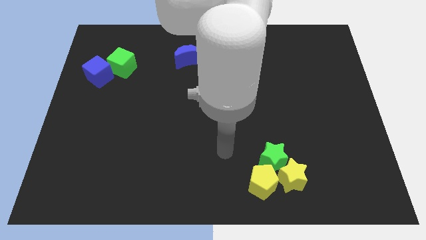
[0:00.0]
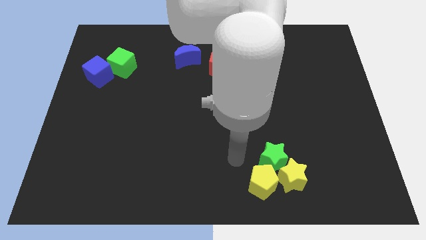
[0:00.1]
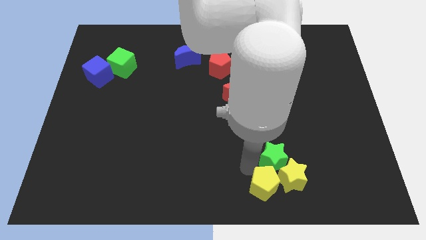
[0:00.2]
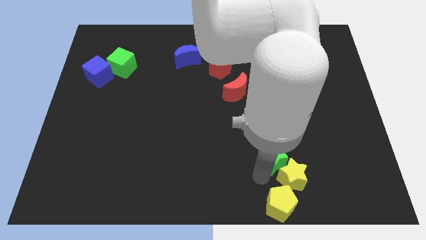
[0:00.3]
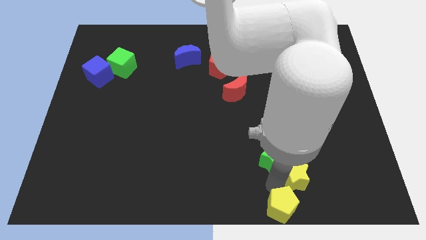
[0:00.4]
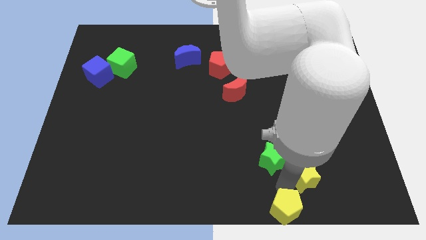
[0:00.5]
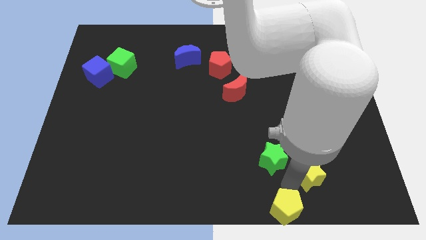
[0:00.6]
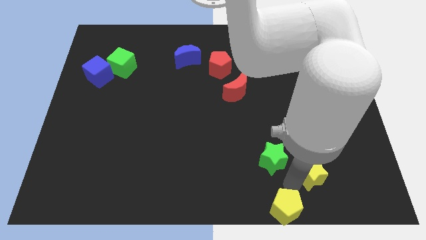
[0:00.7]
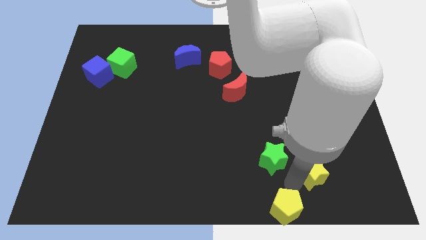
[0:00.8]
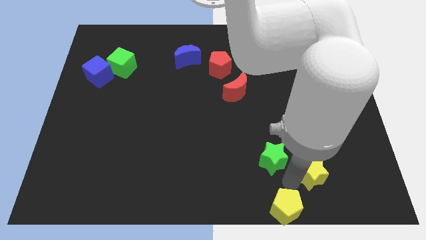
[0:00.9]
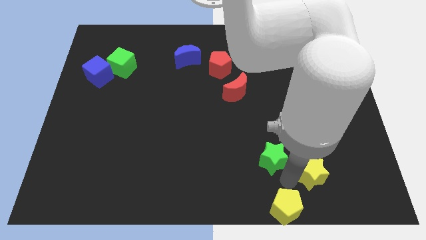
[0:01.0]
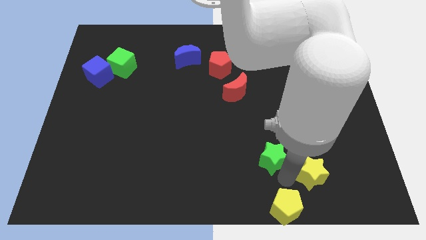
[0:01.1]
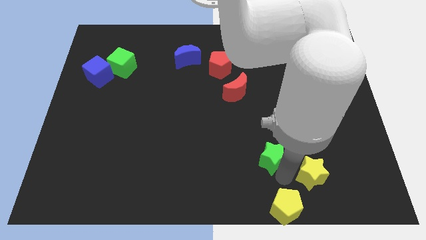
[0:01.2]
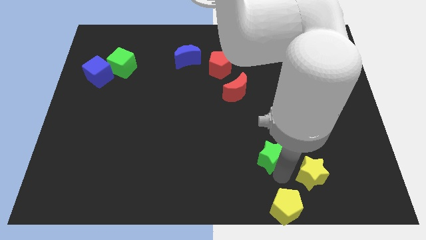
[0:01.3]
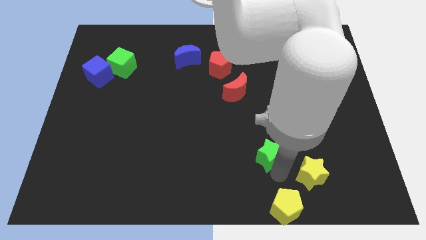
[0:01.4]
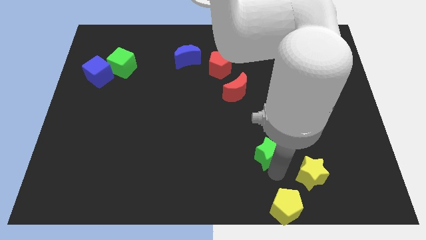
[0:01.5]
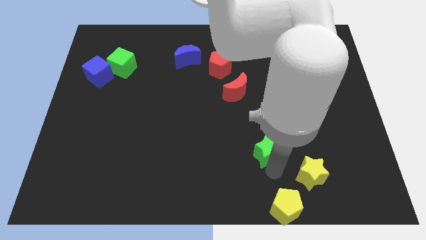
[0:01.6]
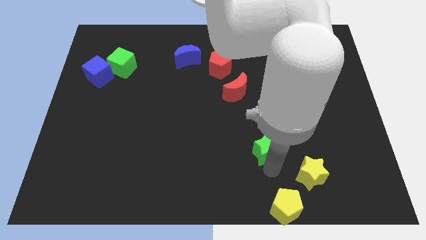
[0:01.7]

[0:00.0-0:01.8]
separate the green star from the yellow star and yellow pentagon

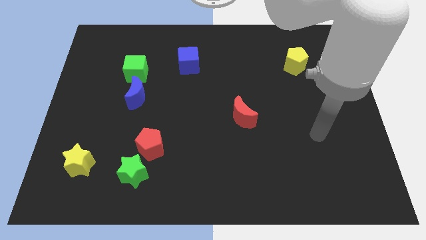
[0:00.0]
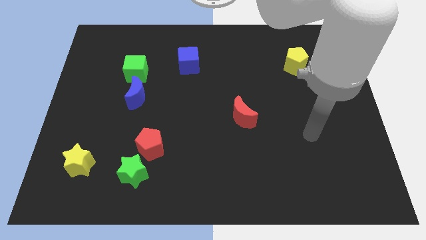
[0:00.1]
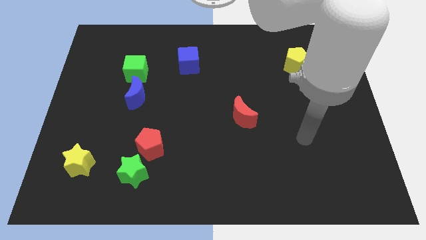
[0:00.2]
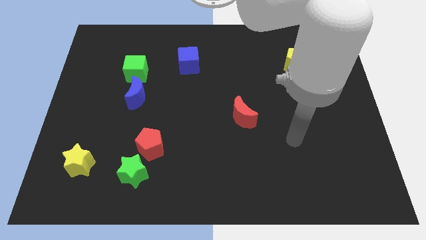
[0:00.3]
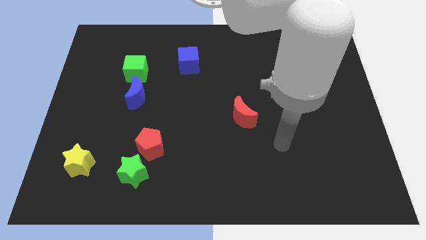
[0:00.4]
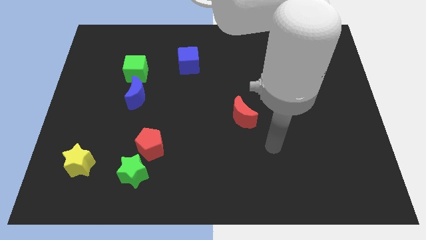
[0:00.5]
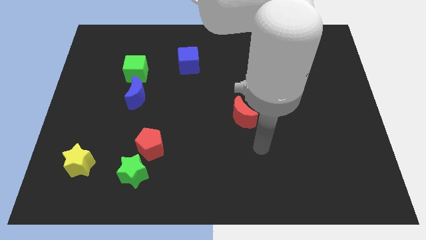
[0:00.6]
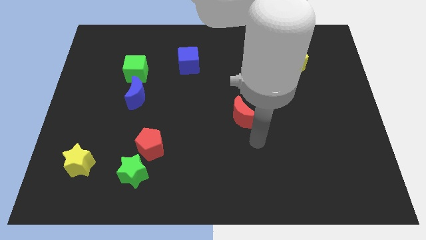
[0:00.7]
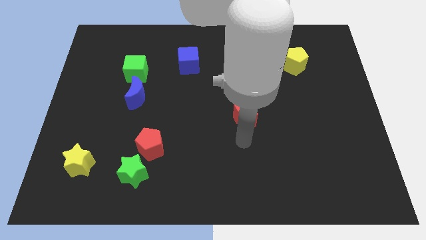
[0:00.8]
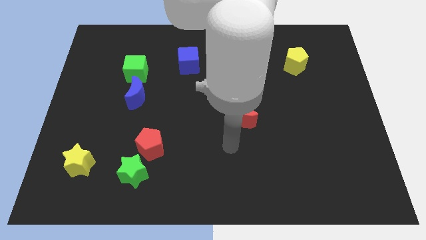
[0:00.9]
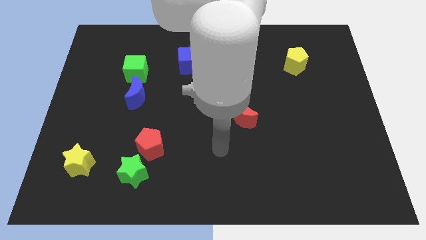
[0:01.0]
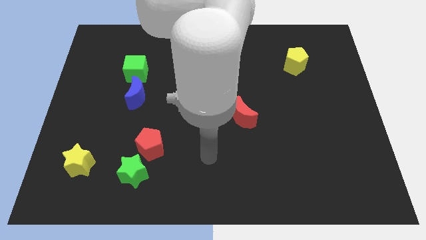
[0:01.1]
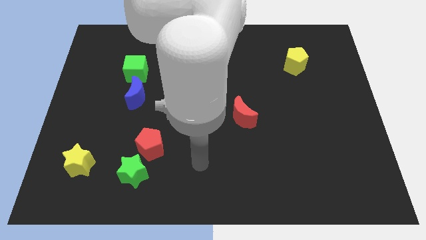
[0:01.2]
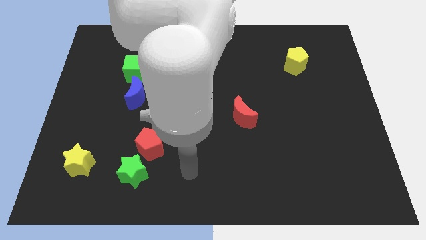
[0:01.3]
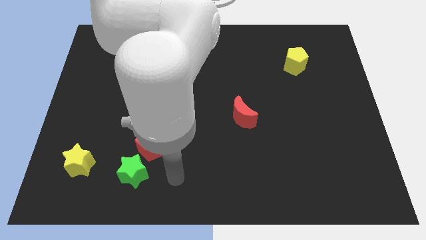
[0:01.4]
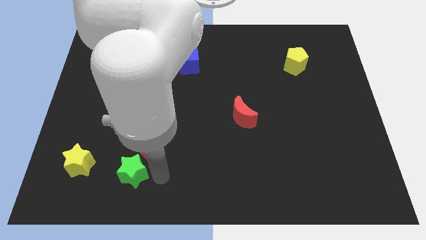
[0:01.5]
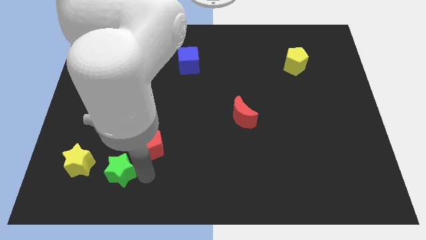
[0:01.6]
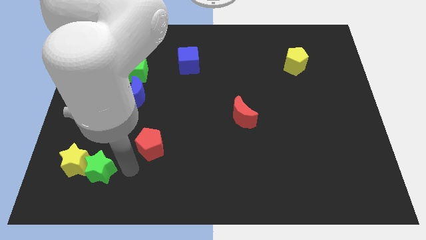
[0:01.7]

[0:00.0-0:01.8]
separate the red pentagon from the green star

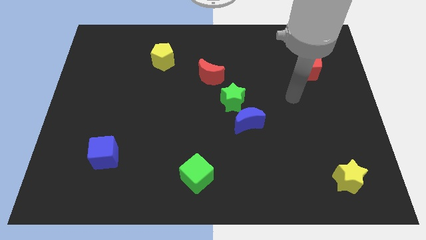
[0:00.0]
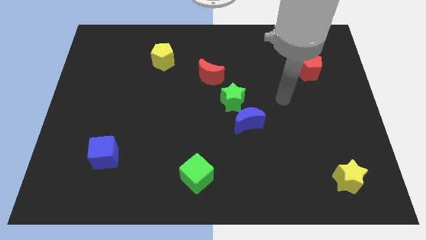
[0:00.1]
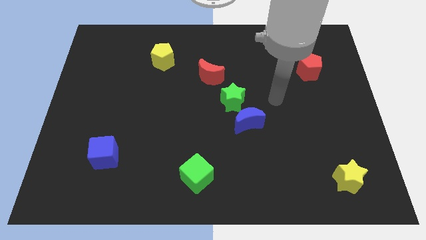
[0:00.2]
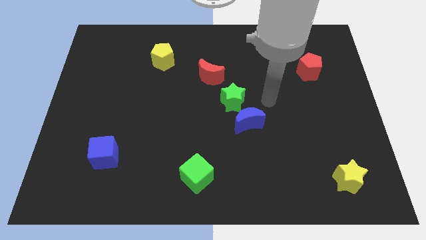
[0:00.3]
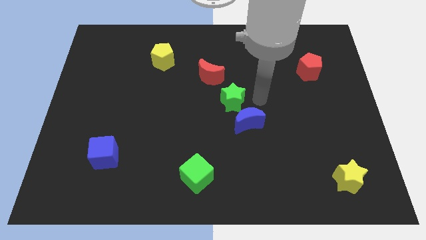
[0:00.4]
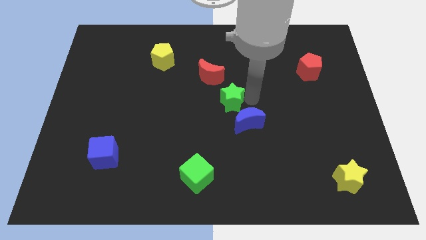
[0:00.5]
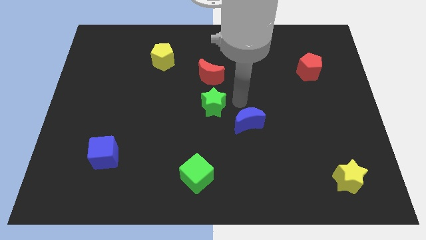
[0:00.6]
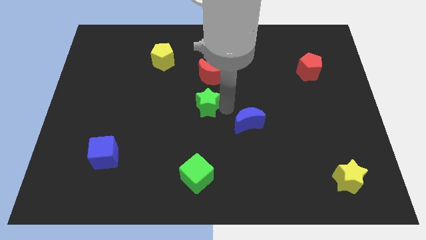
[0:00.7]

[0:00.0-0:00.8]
move the blue moon away from the green star

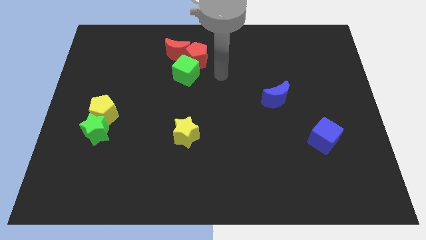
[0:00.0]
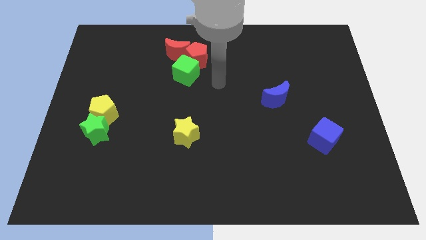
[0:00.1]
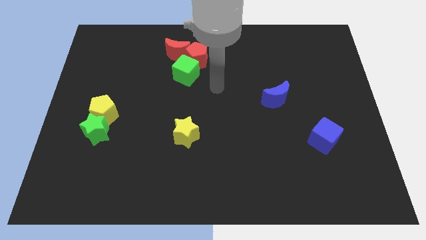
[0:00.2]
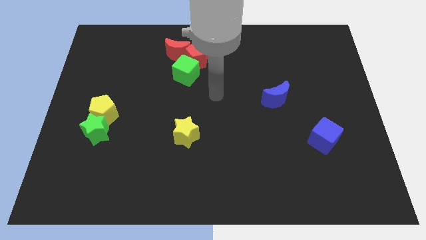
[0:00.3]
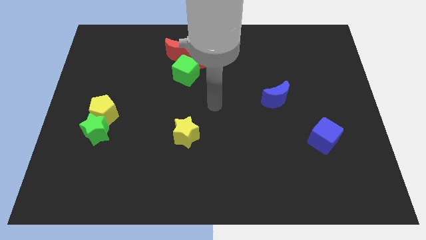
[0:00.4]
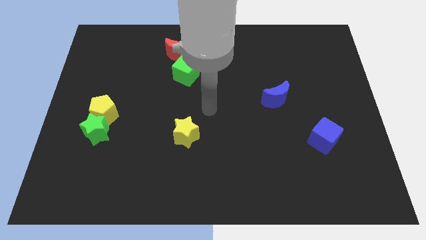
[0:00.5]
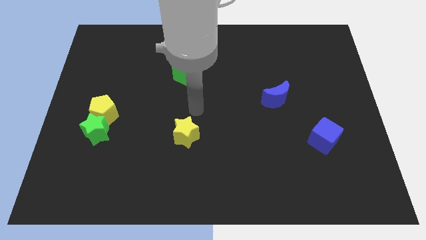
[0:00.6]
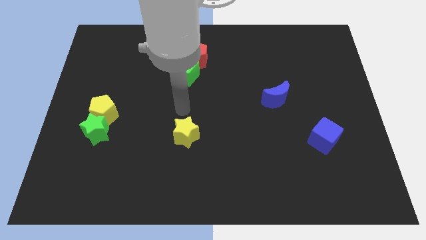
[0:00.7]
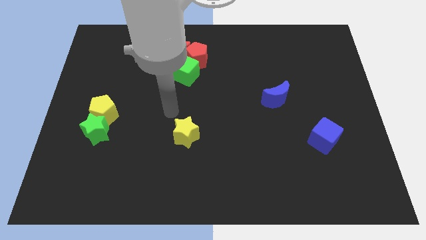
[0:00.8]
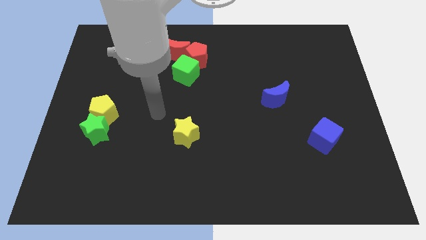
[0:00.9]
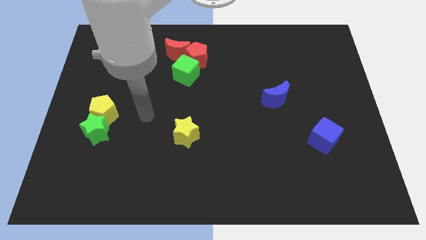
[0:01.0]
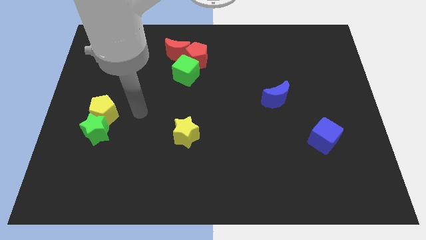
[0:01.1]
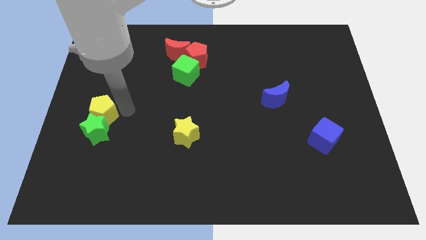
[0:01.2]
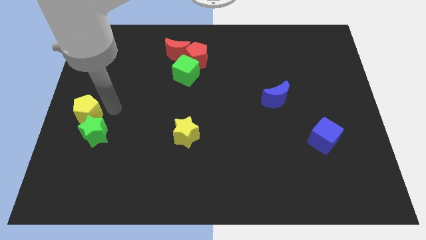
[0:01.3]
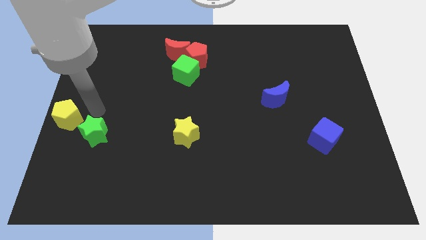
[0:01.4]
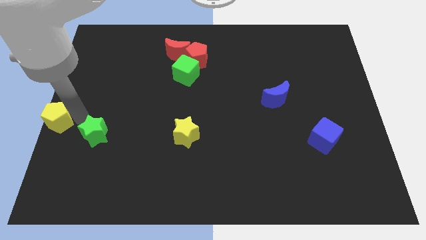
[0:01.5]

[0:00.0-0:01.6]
pull the green star apart from the yellow pentagon

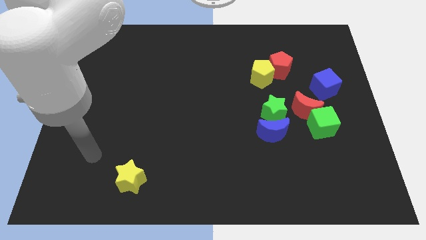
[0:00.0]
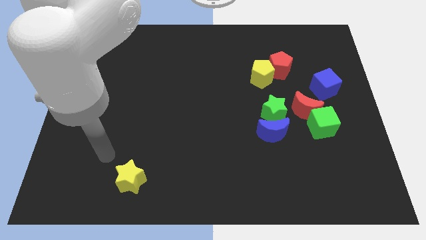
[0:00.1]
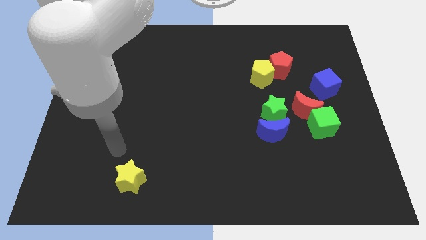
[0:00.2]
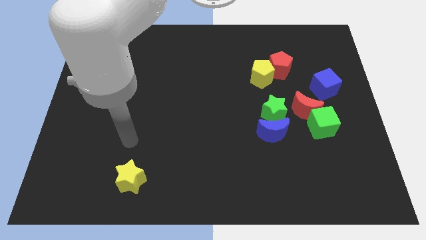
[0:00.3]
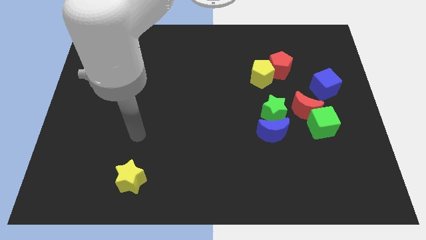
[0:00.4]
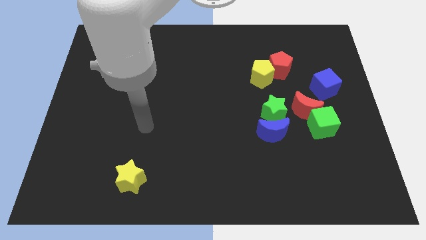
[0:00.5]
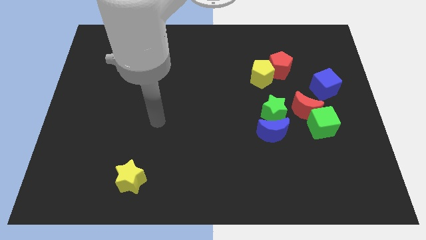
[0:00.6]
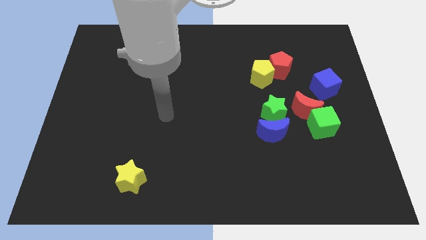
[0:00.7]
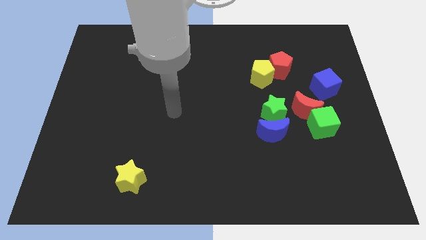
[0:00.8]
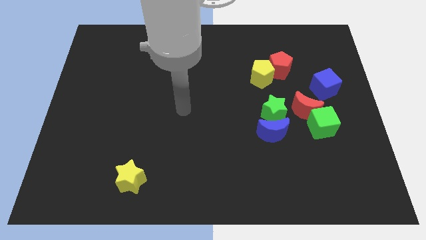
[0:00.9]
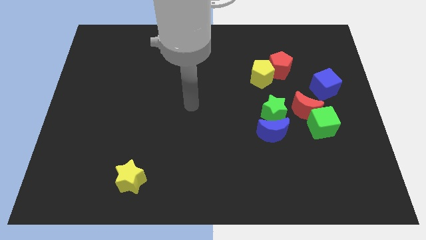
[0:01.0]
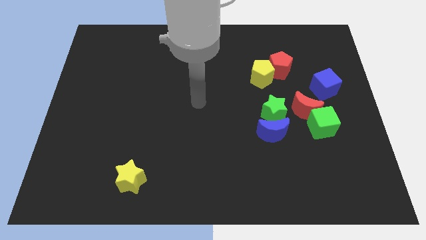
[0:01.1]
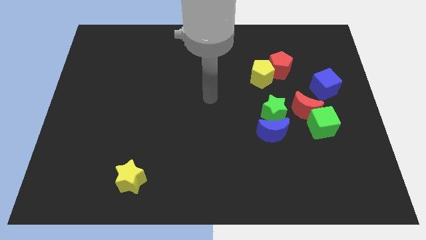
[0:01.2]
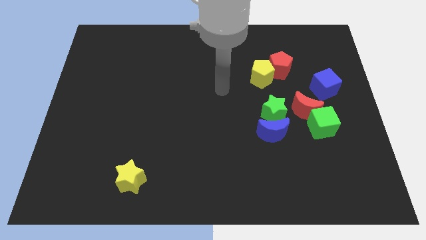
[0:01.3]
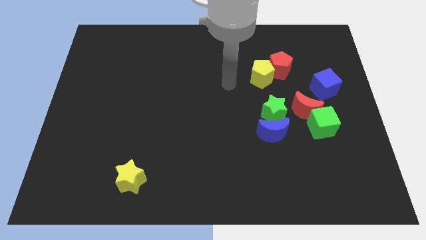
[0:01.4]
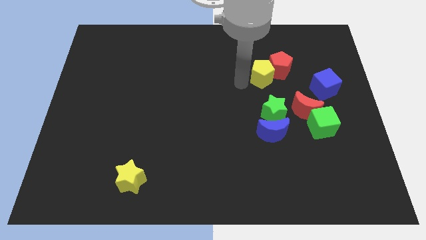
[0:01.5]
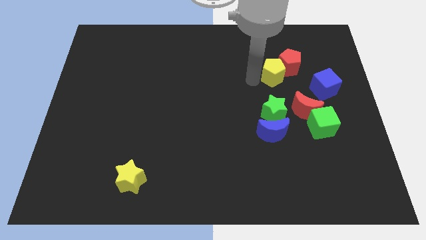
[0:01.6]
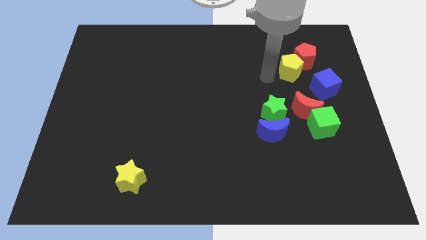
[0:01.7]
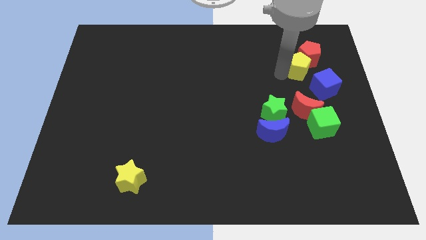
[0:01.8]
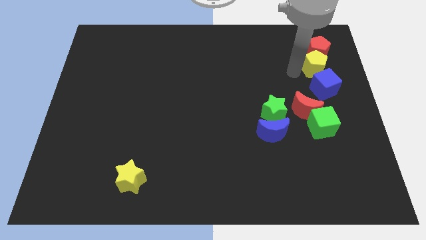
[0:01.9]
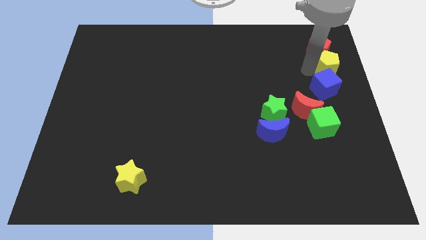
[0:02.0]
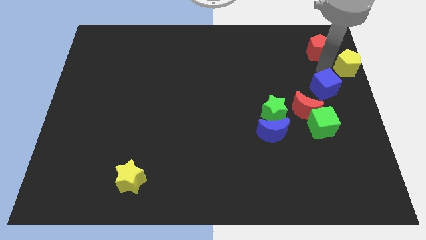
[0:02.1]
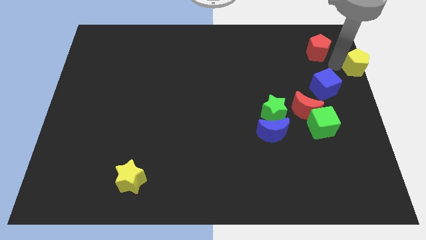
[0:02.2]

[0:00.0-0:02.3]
separate the red pentagon from the yellow pentagon

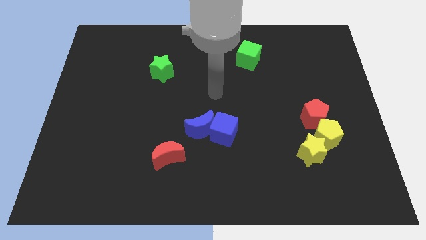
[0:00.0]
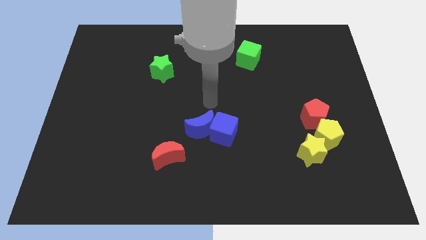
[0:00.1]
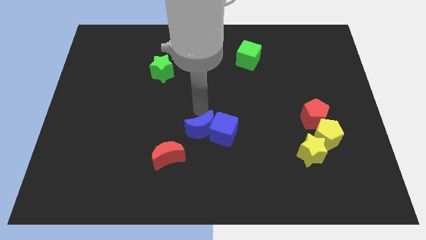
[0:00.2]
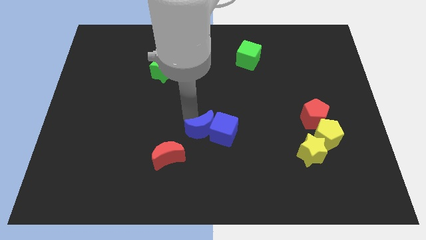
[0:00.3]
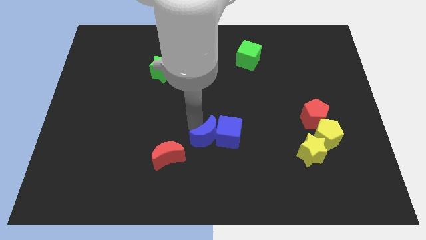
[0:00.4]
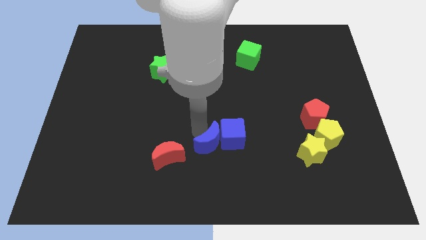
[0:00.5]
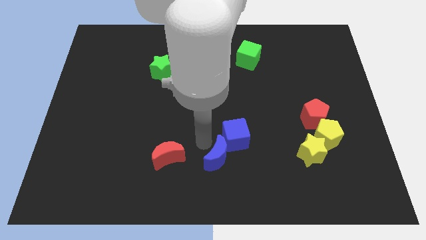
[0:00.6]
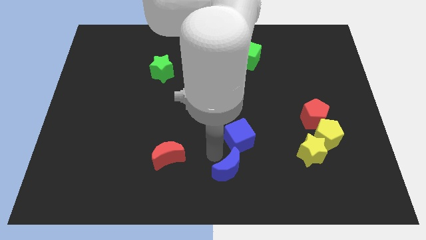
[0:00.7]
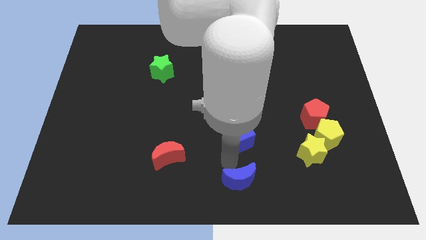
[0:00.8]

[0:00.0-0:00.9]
move the blue cube away from the blue moon

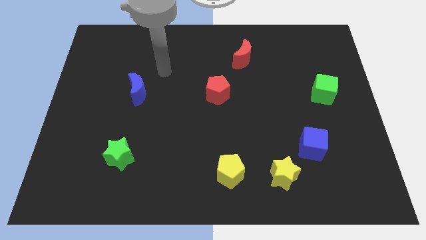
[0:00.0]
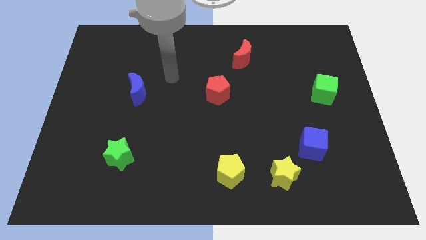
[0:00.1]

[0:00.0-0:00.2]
separate the blue cube from the yellow star
